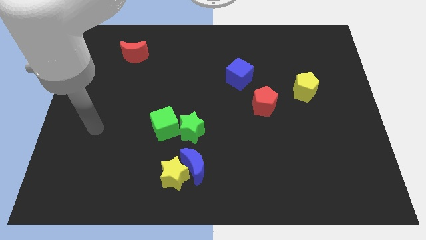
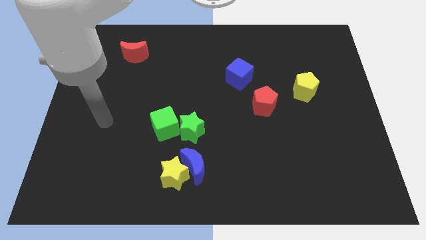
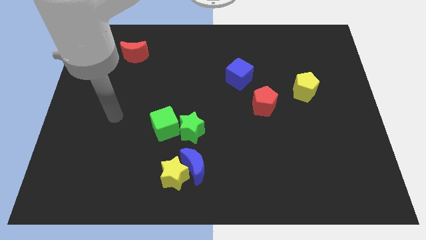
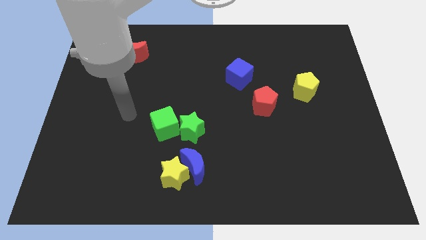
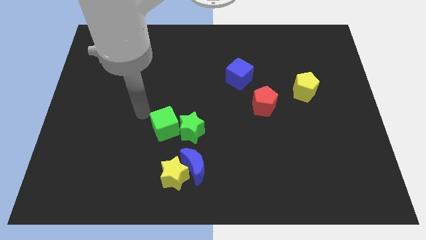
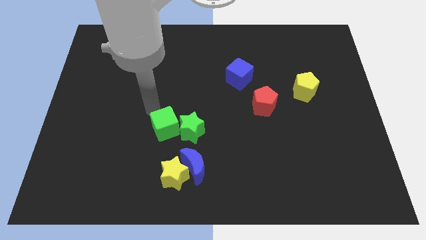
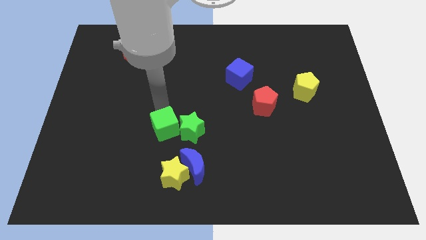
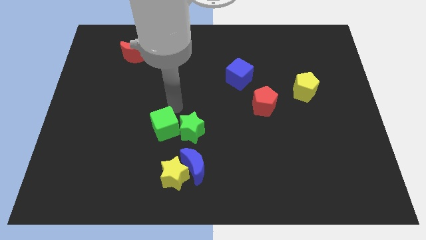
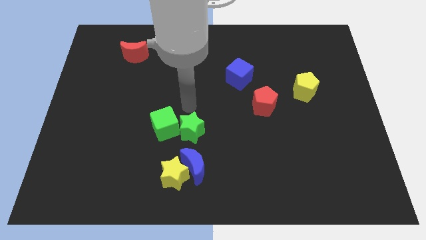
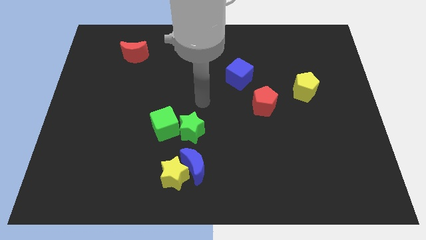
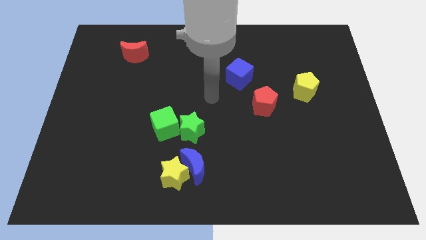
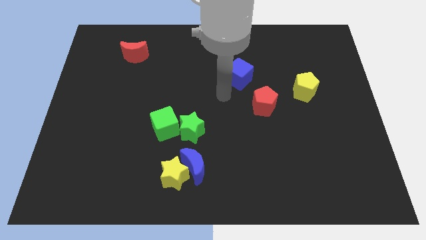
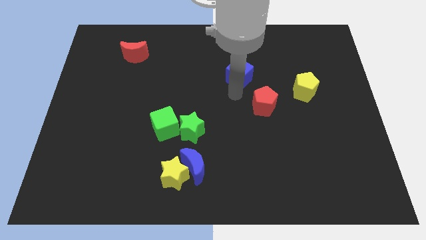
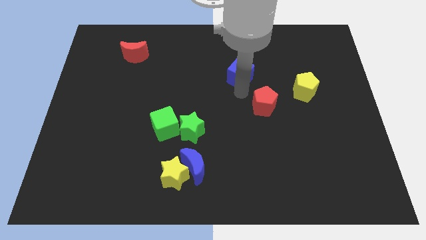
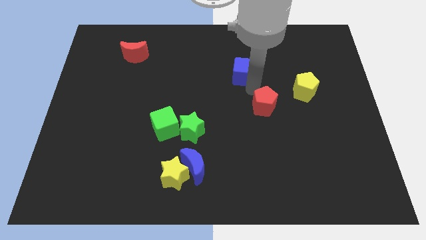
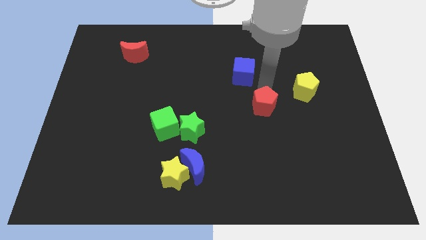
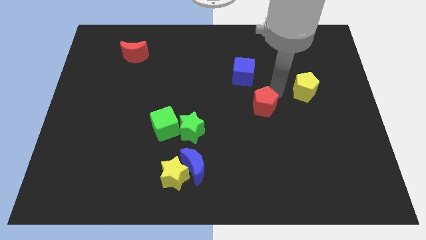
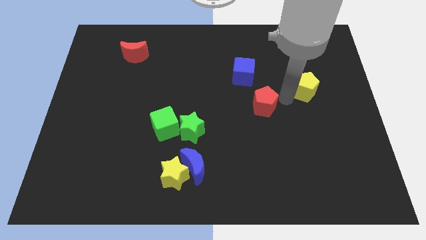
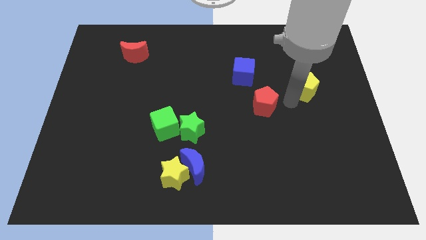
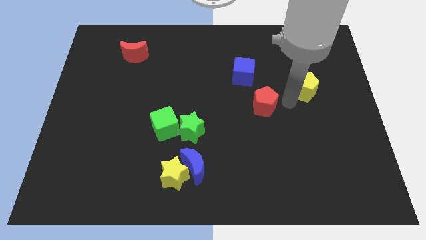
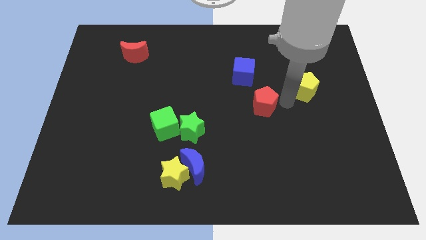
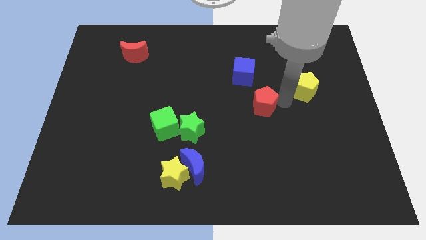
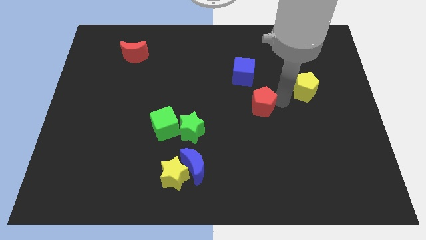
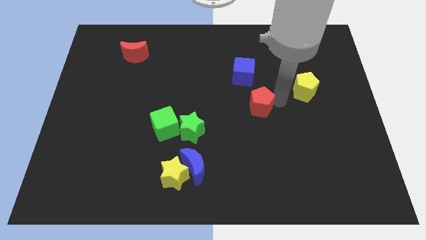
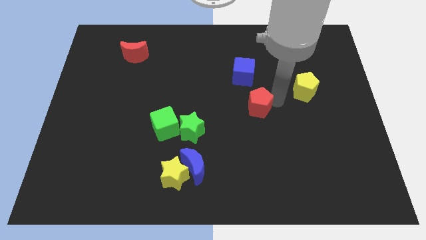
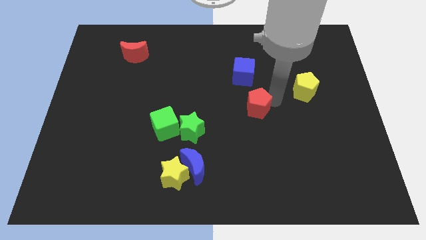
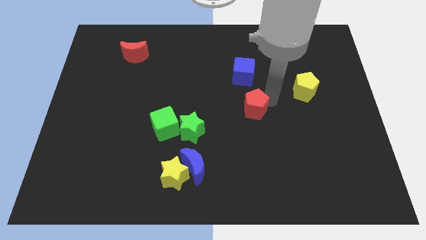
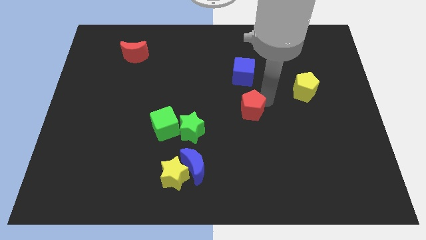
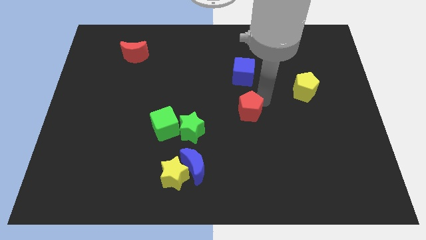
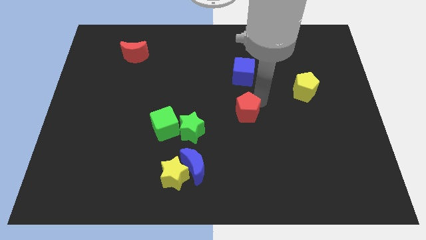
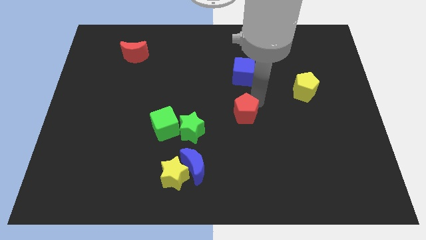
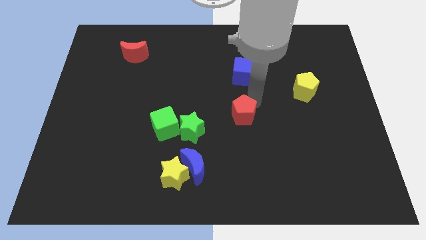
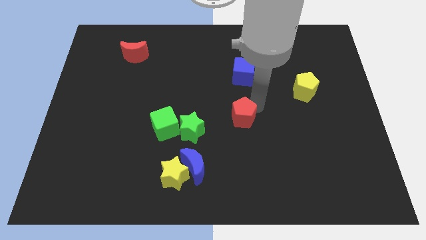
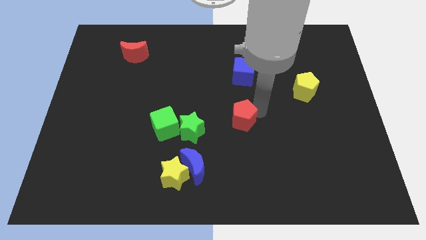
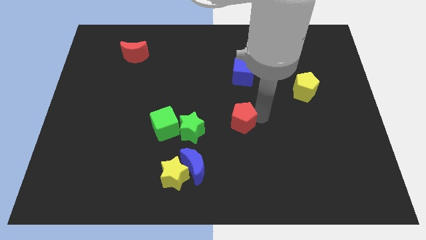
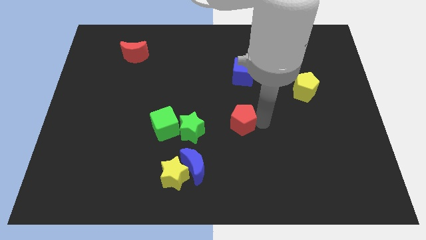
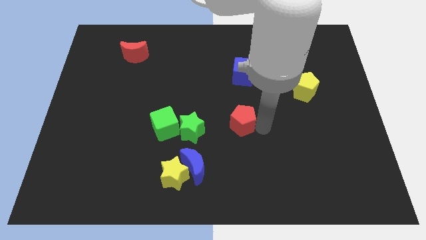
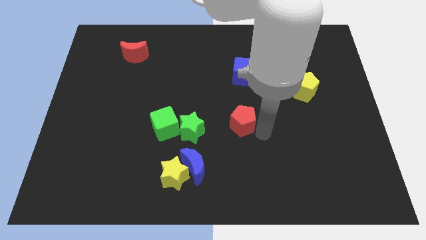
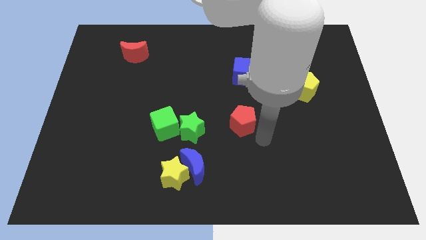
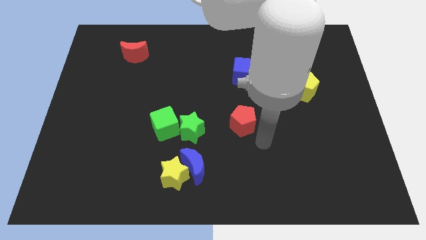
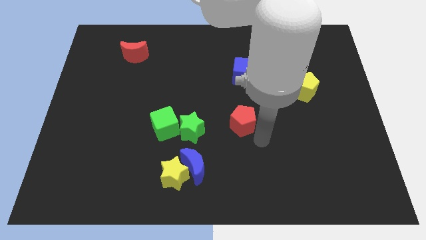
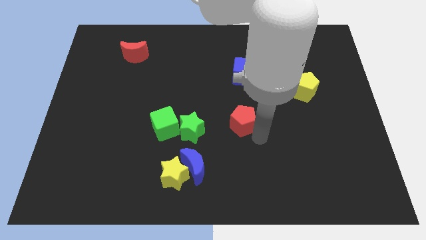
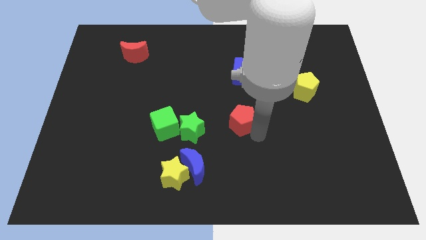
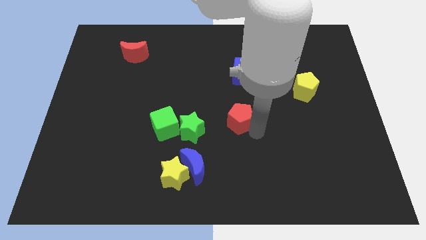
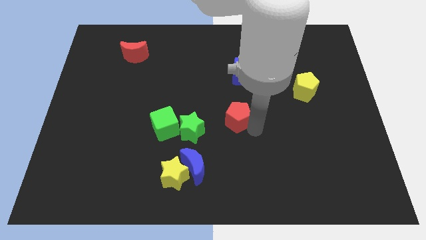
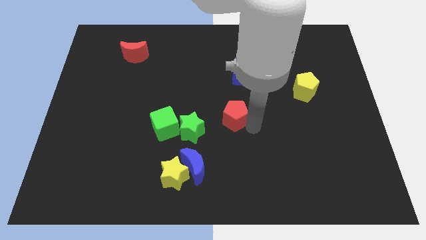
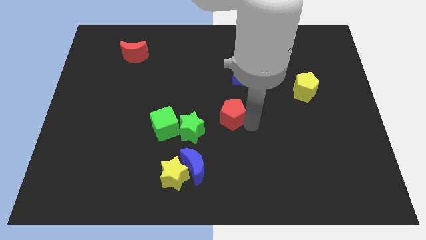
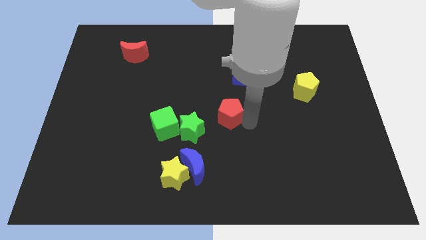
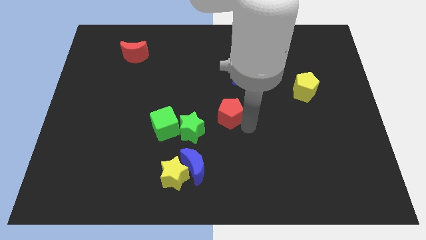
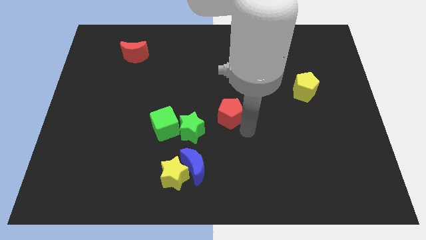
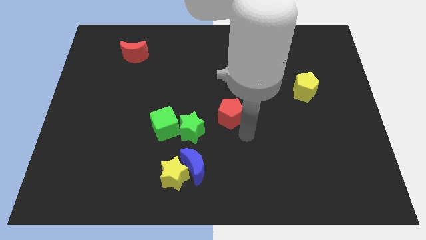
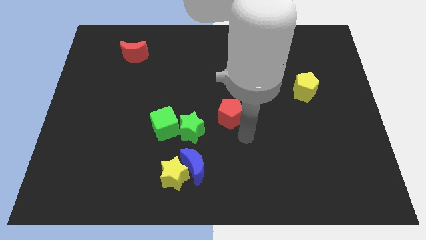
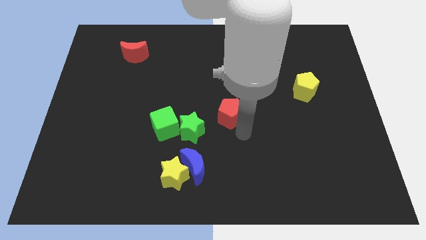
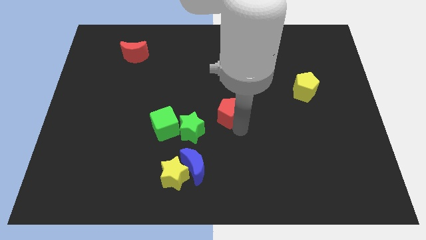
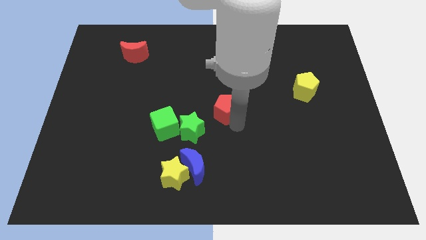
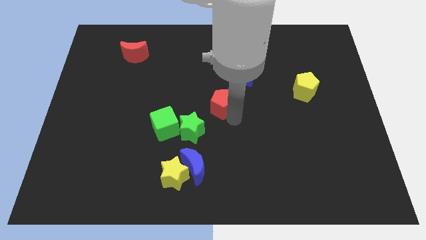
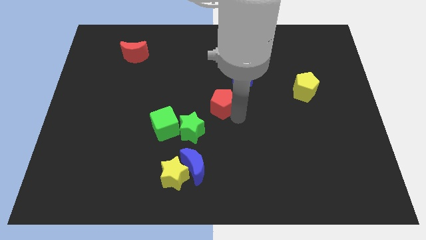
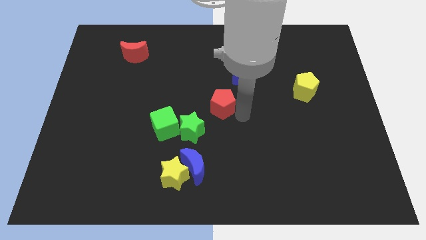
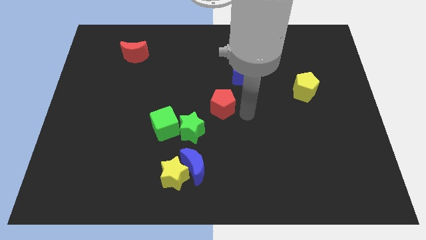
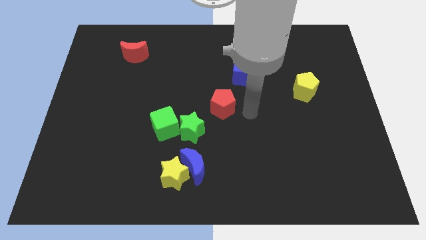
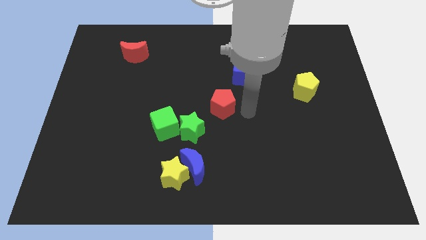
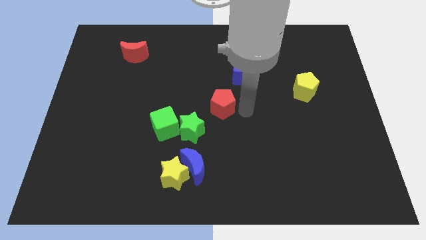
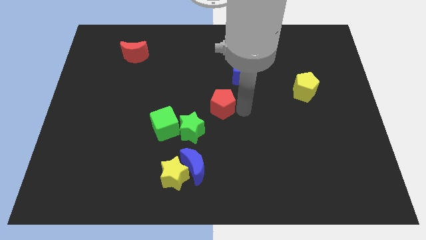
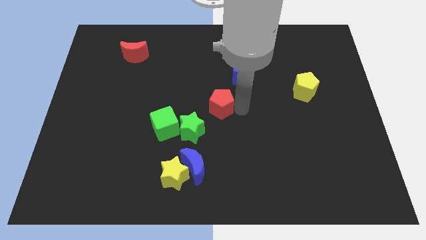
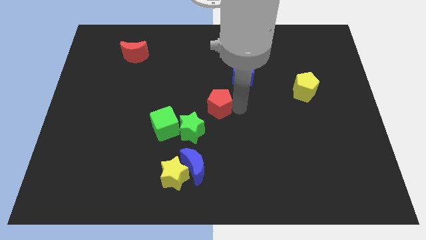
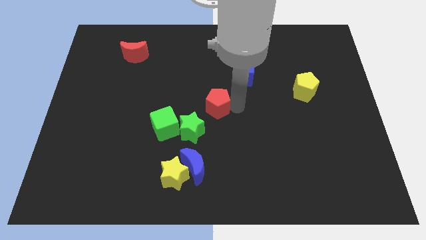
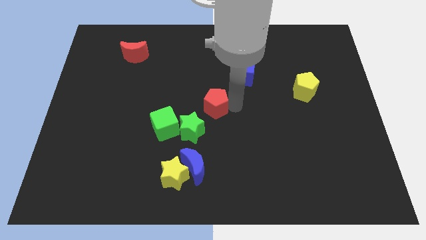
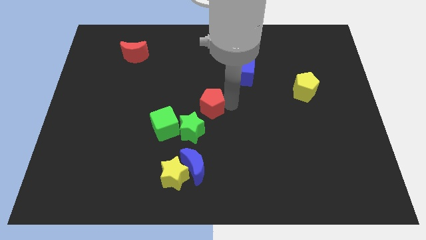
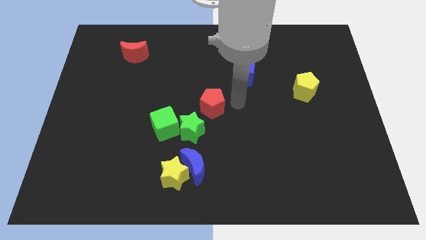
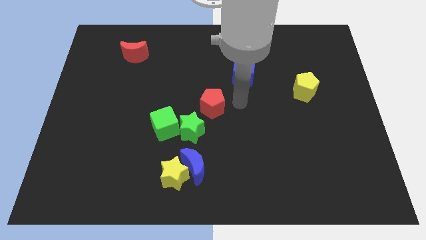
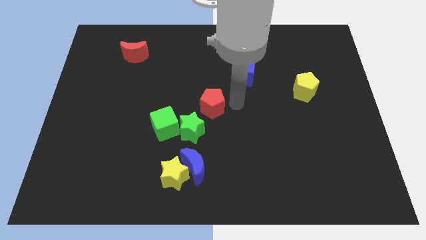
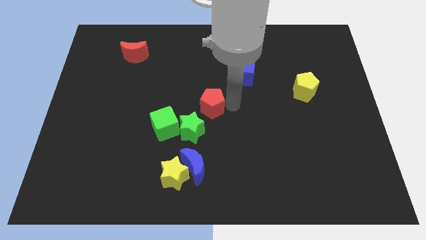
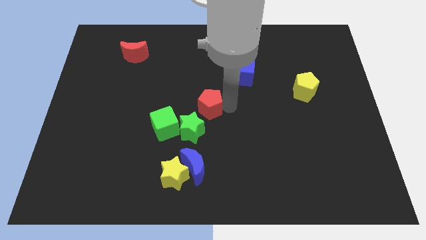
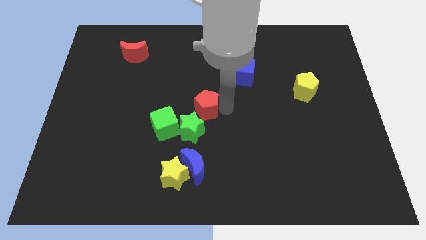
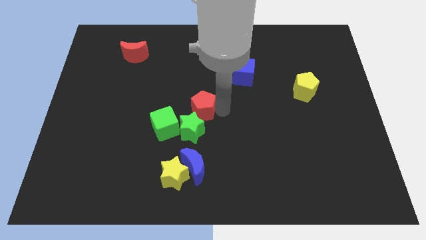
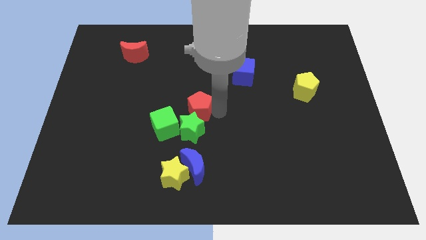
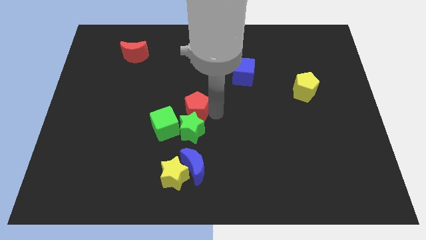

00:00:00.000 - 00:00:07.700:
slide the red pentagon to the top left of the green star
